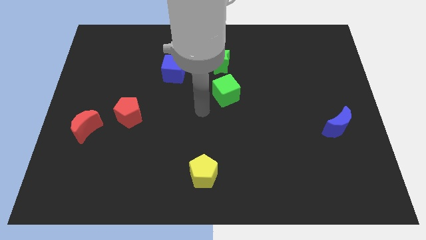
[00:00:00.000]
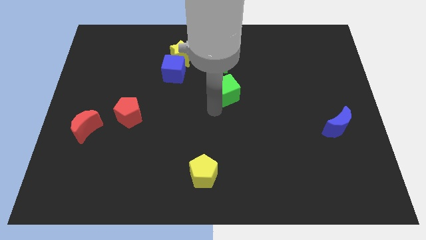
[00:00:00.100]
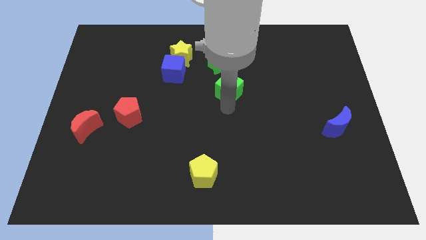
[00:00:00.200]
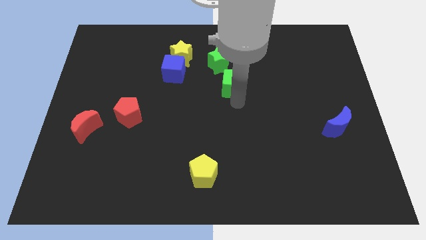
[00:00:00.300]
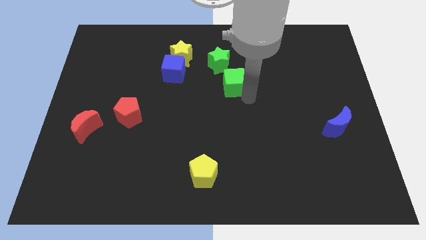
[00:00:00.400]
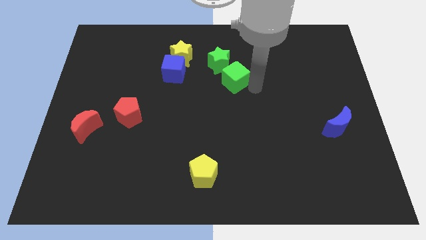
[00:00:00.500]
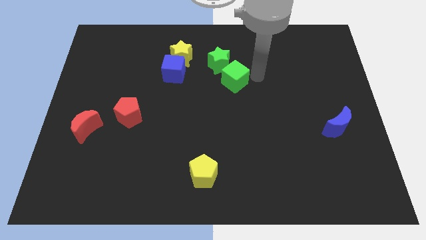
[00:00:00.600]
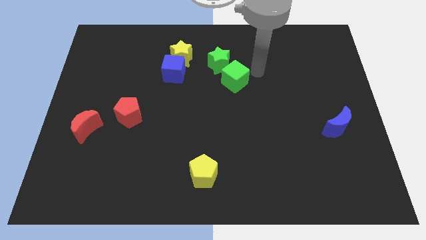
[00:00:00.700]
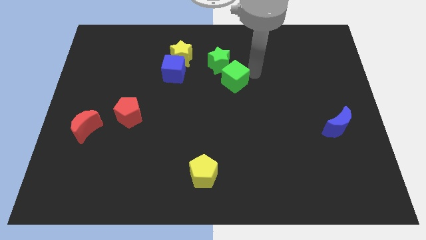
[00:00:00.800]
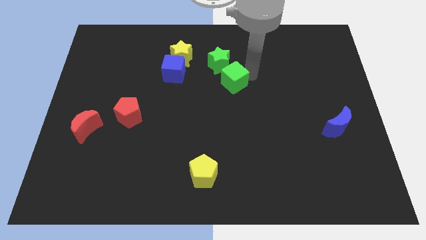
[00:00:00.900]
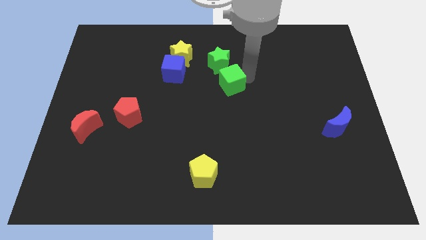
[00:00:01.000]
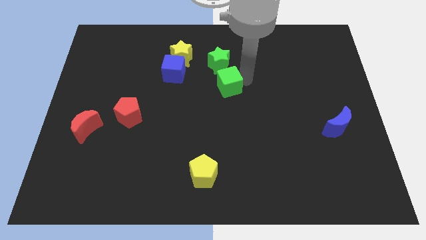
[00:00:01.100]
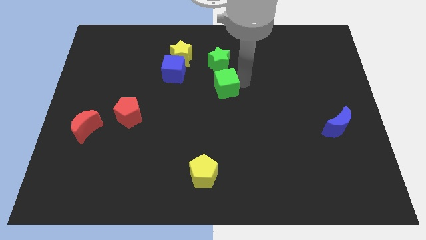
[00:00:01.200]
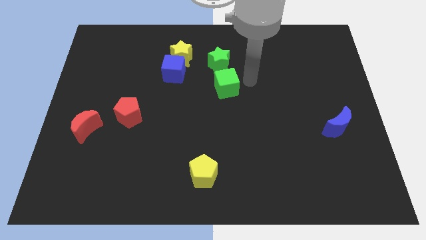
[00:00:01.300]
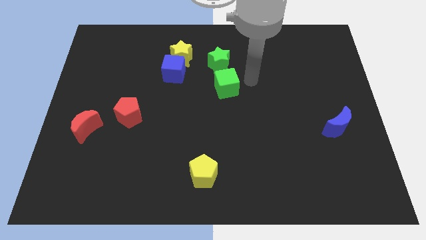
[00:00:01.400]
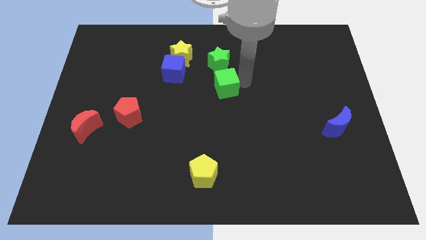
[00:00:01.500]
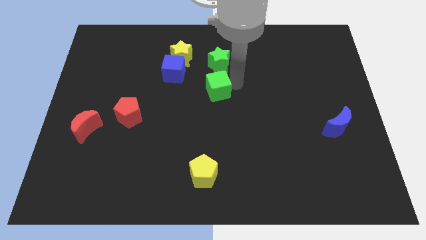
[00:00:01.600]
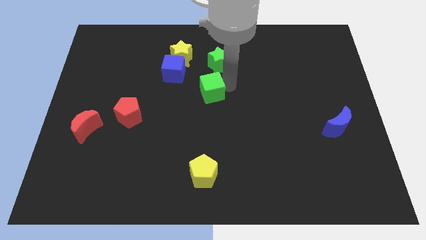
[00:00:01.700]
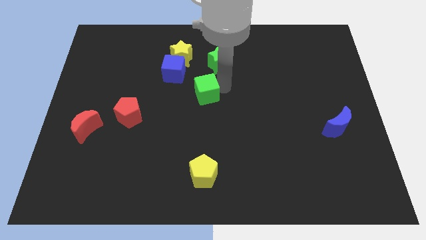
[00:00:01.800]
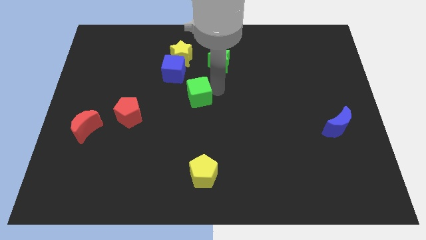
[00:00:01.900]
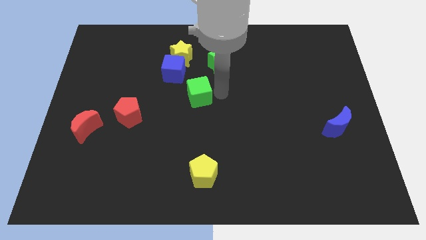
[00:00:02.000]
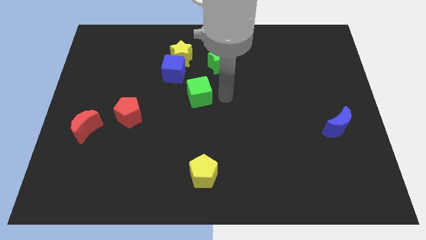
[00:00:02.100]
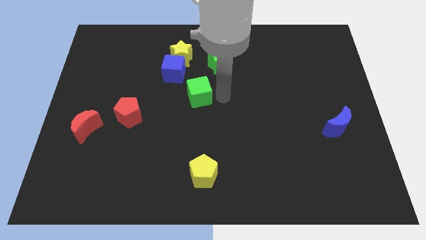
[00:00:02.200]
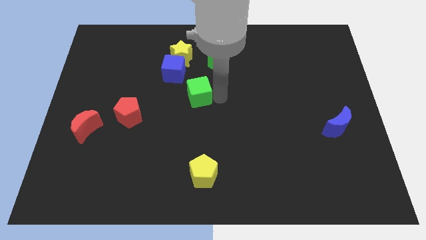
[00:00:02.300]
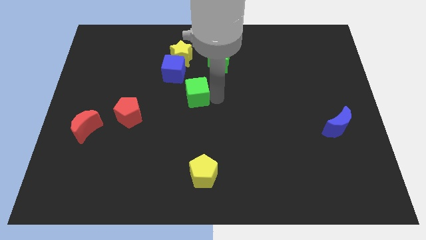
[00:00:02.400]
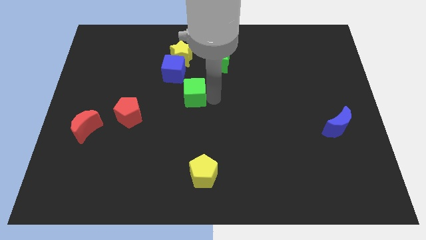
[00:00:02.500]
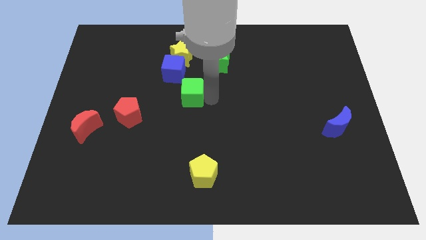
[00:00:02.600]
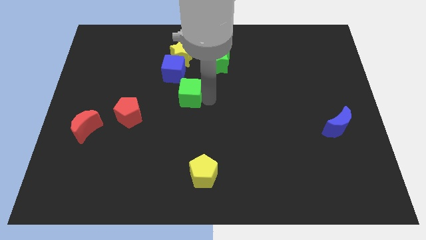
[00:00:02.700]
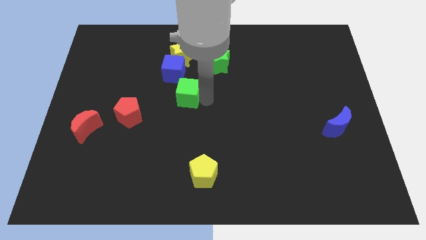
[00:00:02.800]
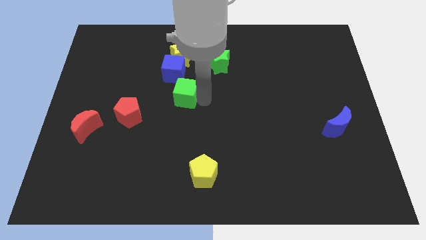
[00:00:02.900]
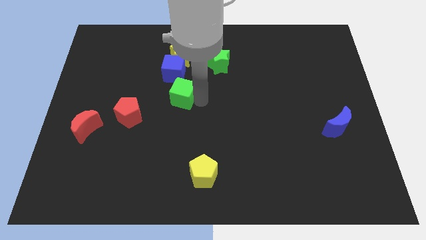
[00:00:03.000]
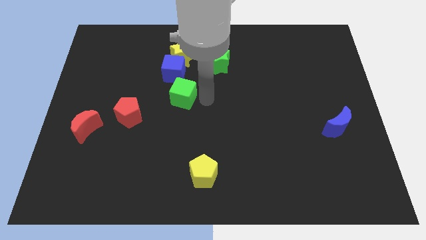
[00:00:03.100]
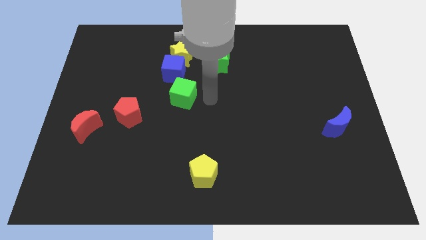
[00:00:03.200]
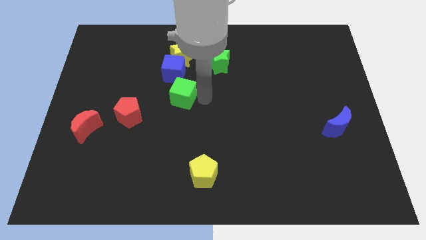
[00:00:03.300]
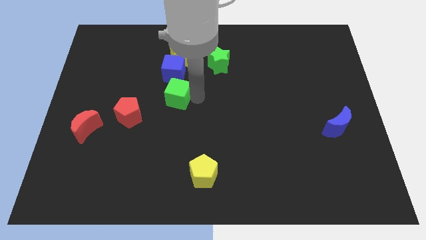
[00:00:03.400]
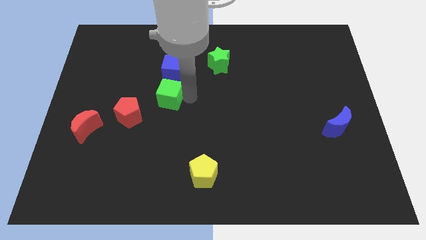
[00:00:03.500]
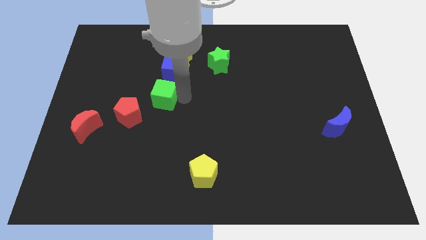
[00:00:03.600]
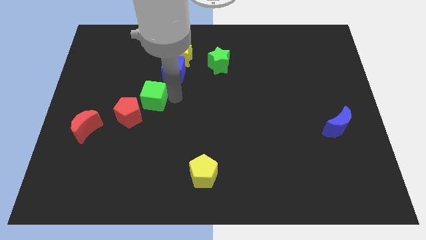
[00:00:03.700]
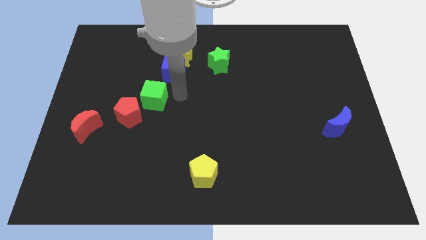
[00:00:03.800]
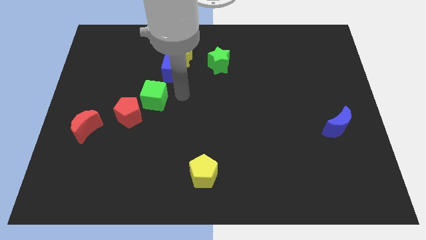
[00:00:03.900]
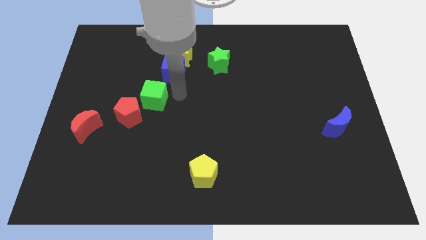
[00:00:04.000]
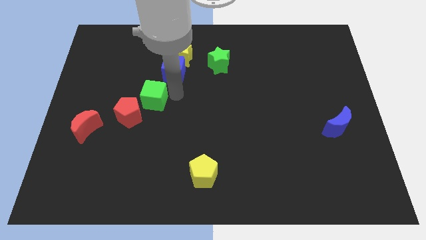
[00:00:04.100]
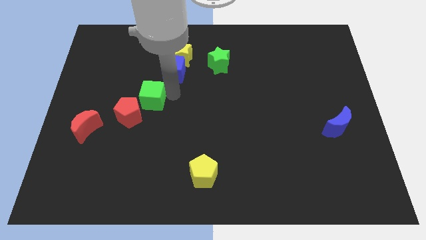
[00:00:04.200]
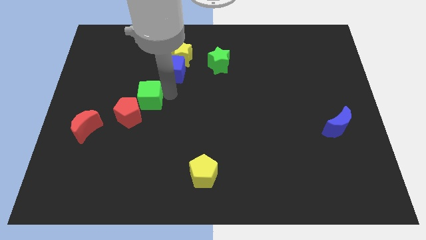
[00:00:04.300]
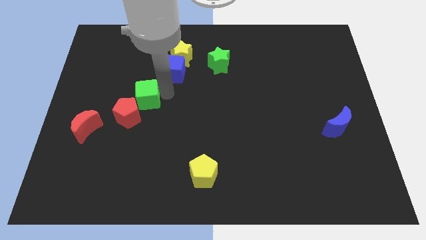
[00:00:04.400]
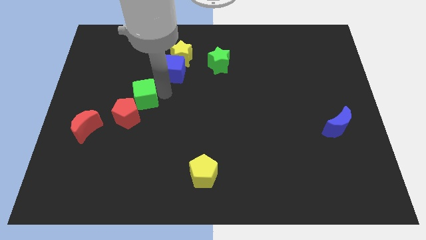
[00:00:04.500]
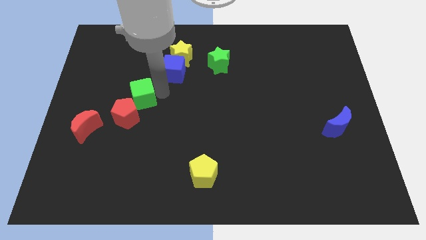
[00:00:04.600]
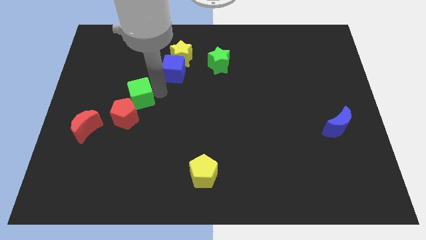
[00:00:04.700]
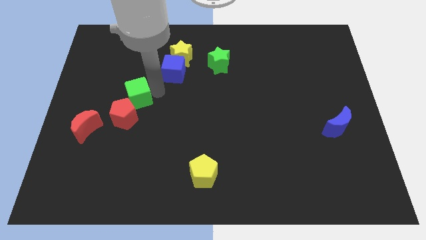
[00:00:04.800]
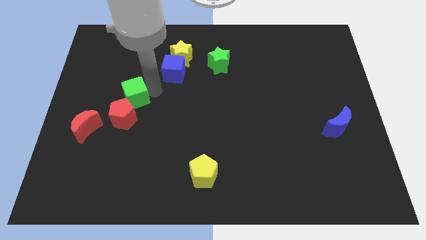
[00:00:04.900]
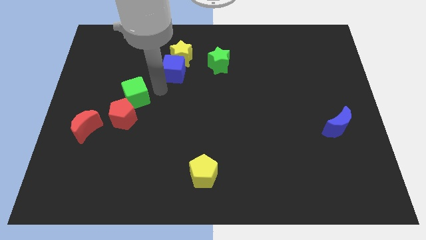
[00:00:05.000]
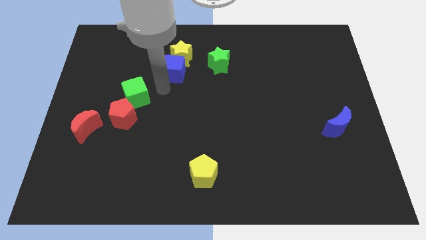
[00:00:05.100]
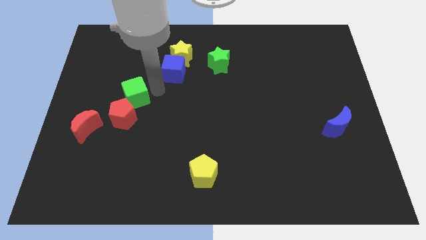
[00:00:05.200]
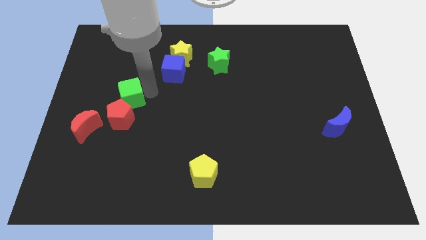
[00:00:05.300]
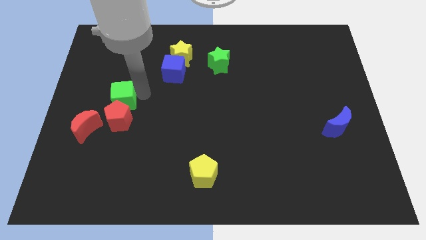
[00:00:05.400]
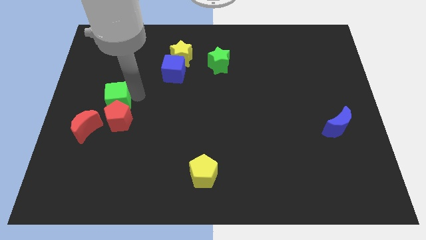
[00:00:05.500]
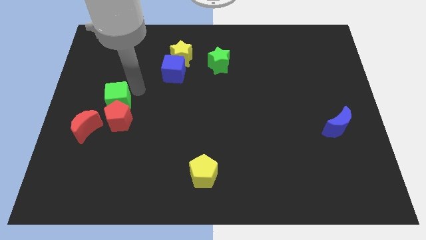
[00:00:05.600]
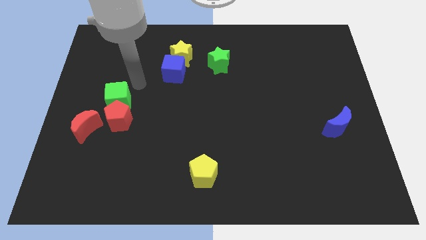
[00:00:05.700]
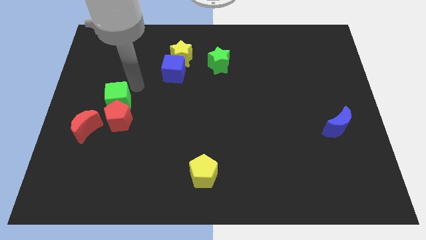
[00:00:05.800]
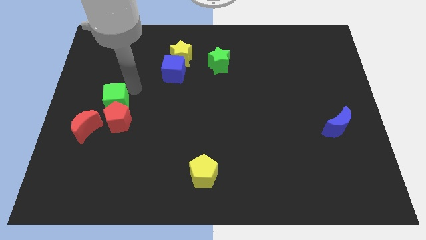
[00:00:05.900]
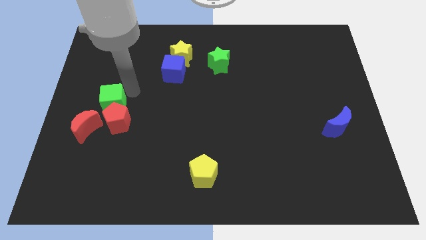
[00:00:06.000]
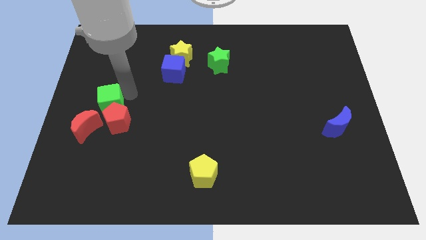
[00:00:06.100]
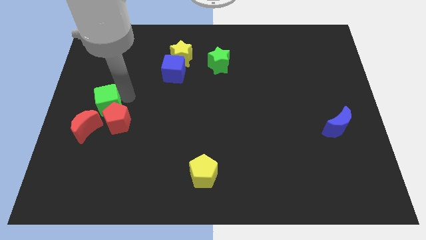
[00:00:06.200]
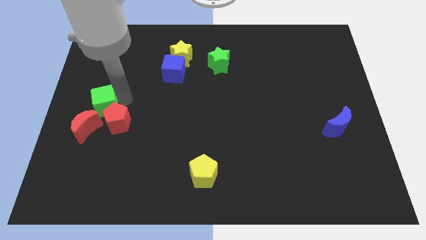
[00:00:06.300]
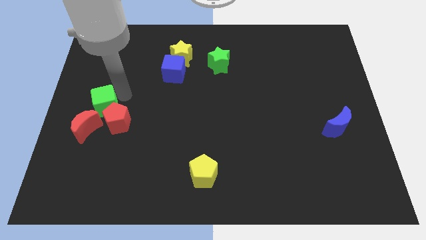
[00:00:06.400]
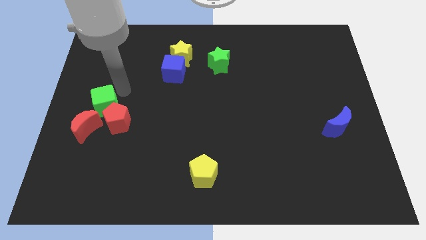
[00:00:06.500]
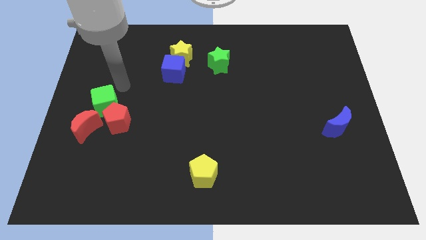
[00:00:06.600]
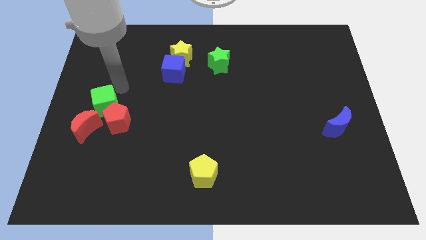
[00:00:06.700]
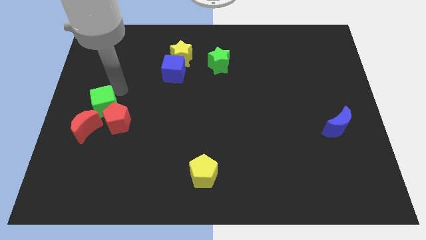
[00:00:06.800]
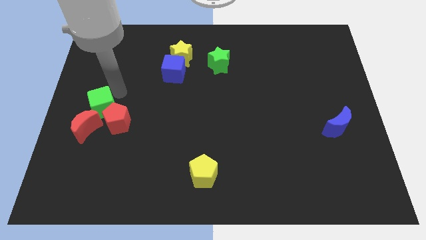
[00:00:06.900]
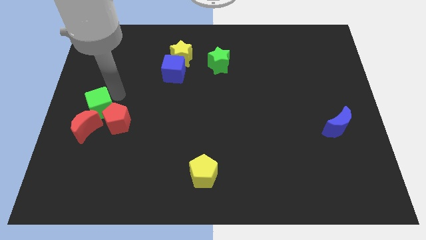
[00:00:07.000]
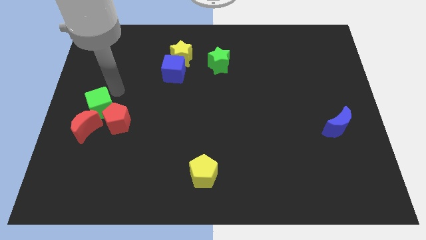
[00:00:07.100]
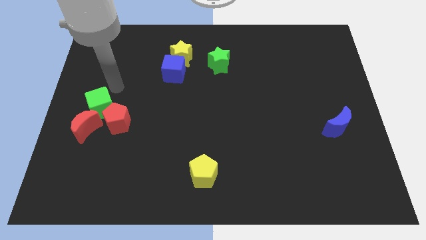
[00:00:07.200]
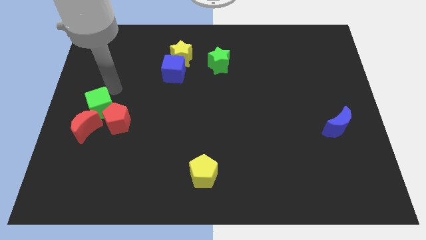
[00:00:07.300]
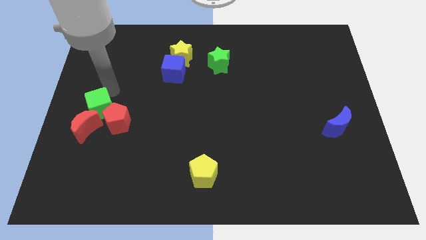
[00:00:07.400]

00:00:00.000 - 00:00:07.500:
move the green cube close to the red moon
